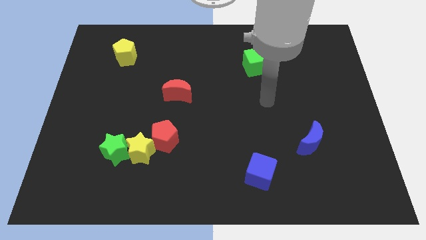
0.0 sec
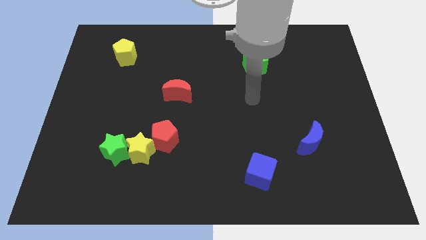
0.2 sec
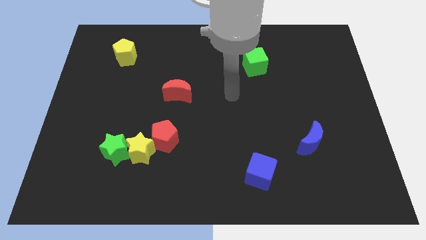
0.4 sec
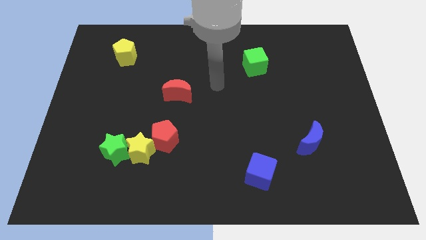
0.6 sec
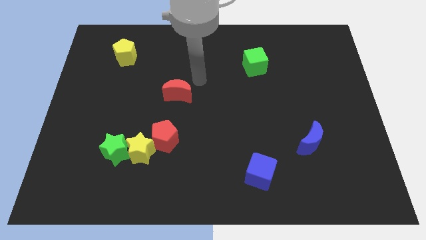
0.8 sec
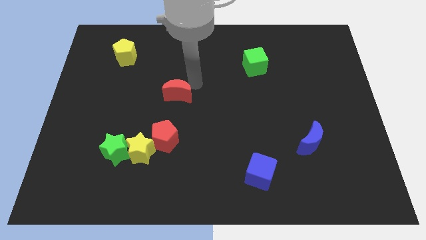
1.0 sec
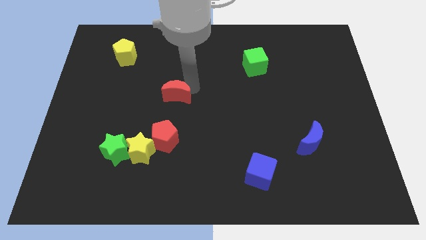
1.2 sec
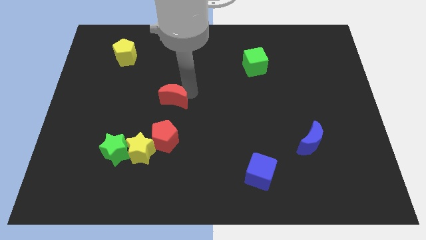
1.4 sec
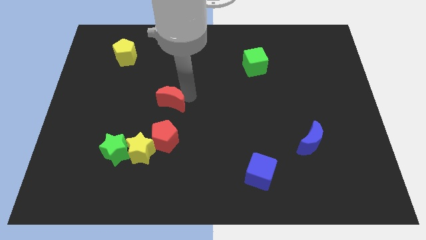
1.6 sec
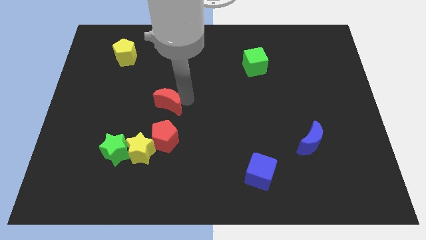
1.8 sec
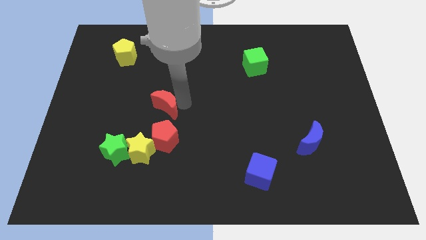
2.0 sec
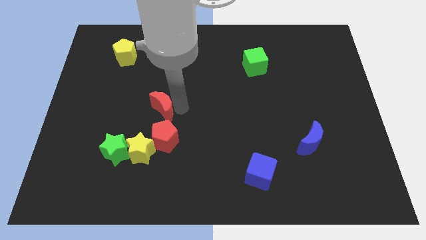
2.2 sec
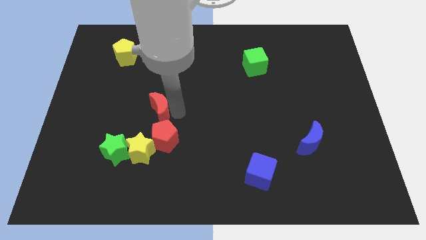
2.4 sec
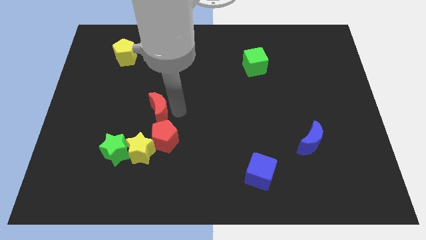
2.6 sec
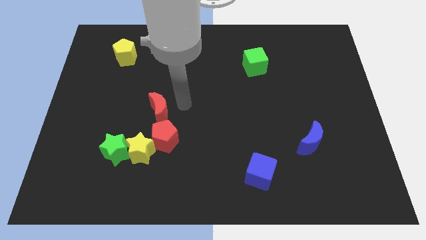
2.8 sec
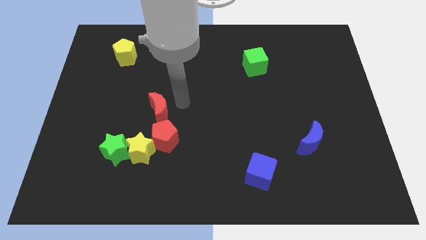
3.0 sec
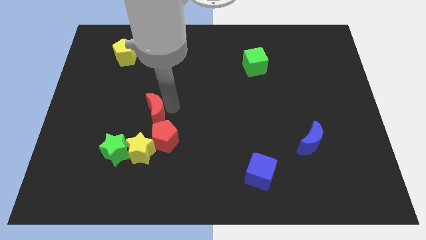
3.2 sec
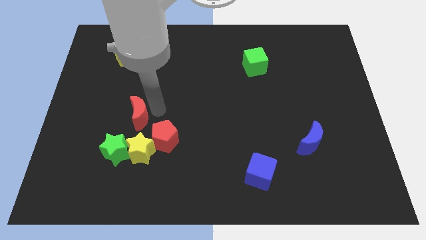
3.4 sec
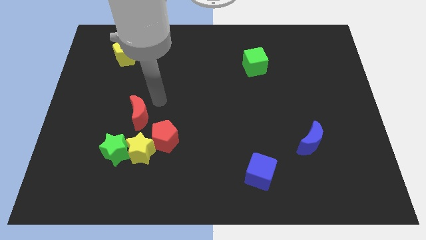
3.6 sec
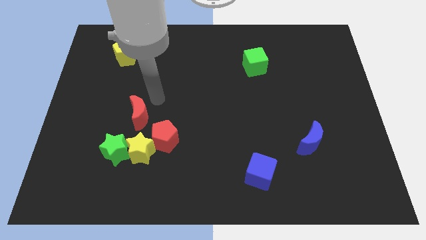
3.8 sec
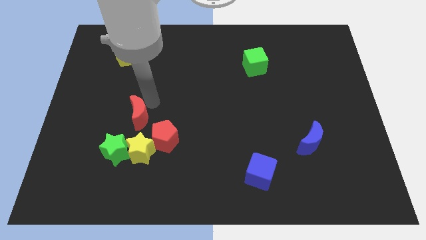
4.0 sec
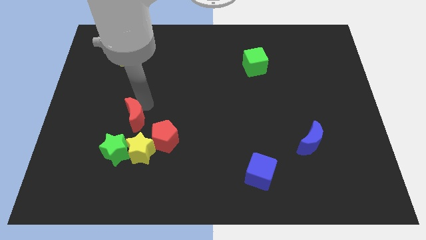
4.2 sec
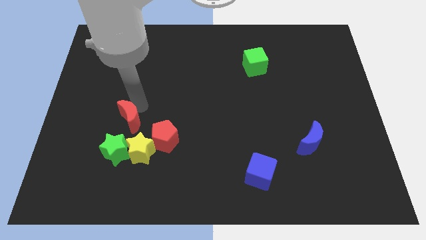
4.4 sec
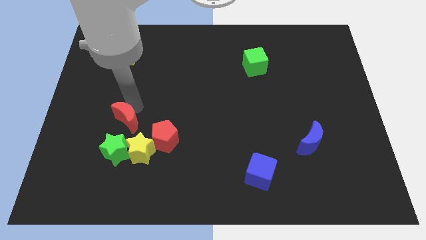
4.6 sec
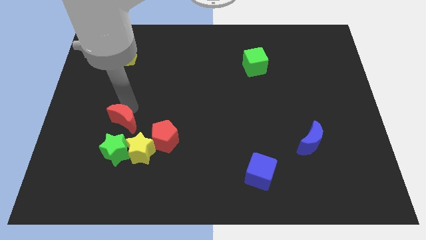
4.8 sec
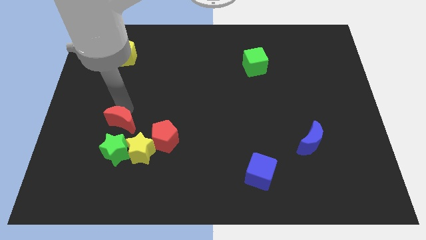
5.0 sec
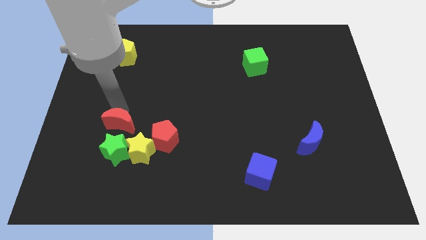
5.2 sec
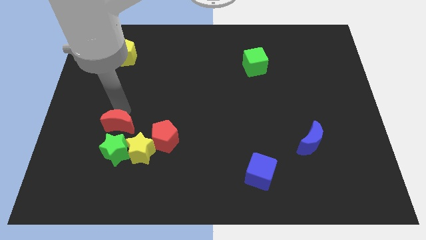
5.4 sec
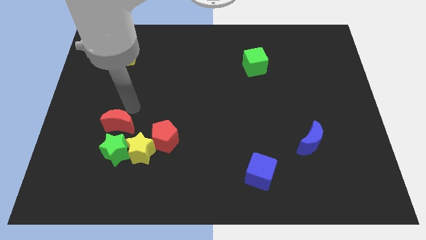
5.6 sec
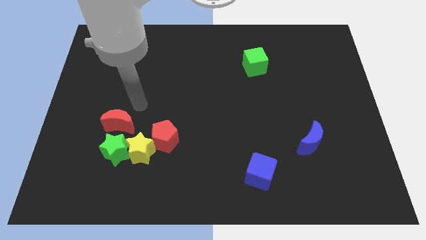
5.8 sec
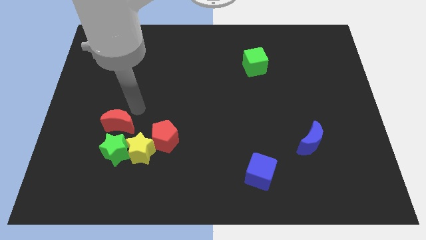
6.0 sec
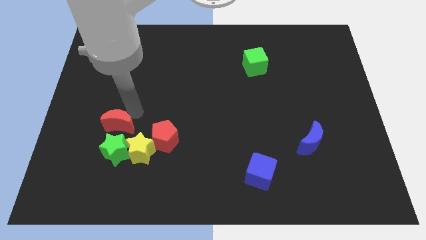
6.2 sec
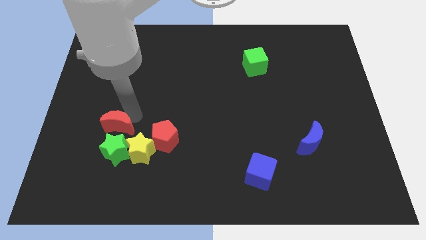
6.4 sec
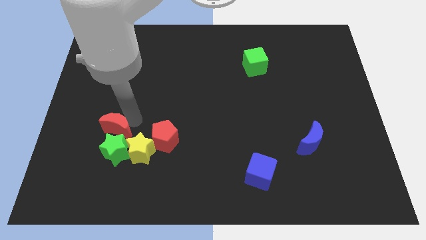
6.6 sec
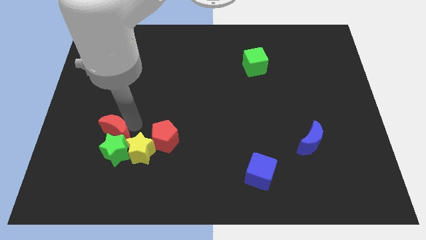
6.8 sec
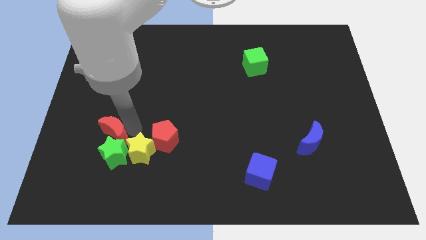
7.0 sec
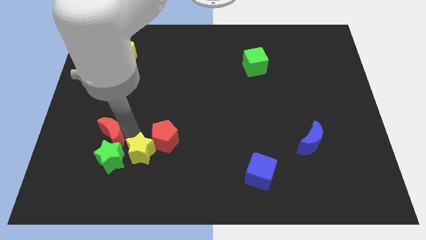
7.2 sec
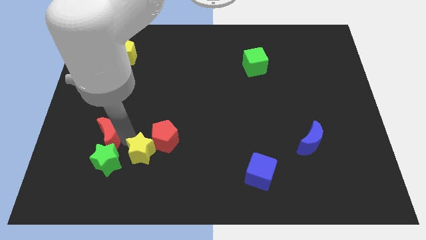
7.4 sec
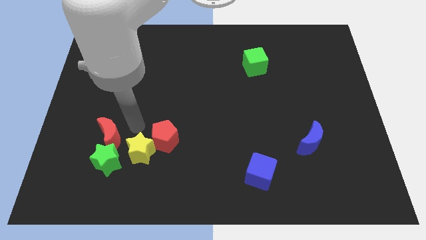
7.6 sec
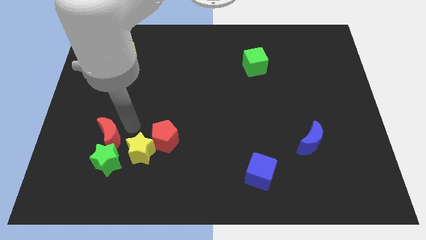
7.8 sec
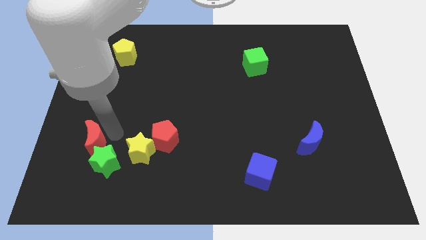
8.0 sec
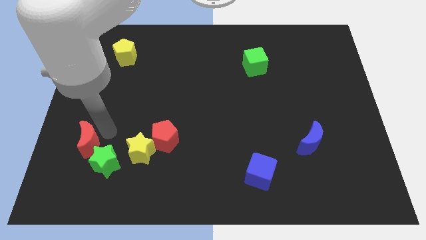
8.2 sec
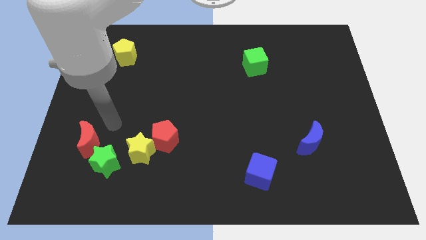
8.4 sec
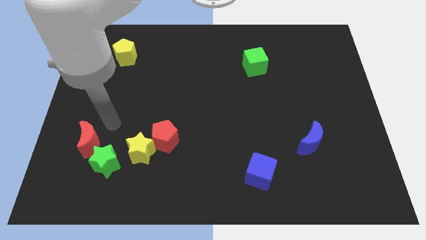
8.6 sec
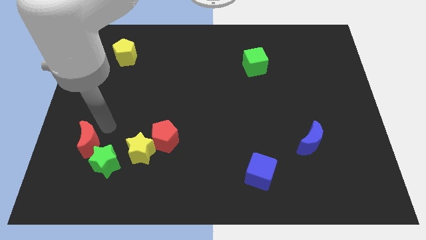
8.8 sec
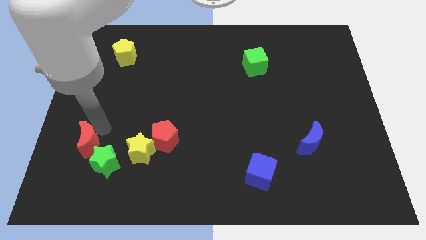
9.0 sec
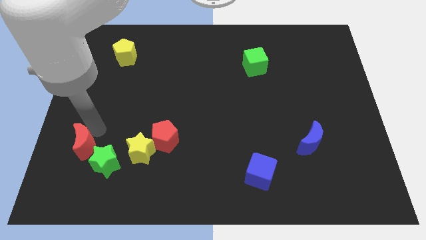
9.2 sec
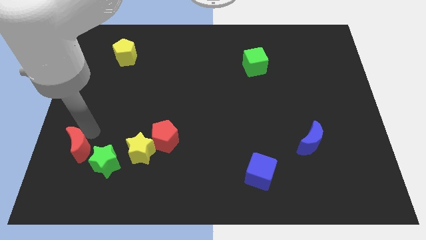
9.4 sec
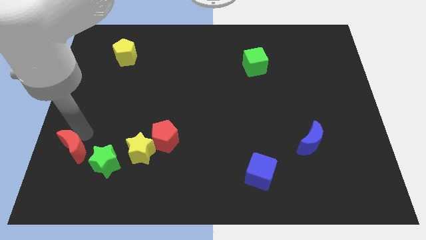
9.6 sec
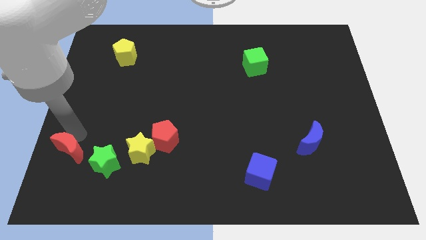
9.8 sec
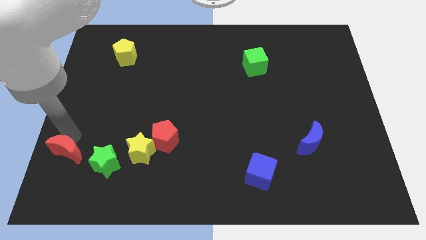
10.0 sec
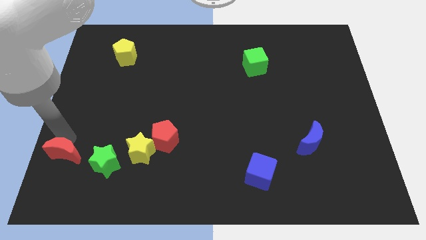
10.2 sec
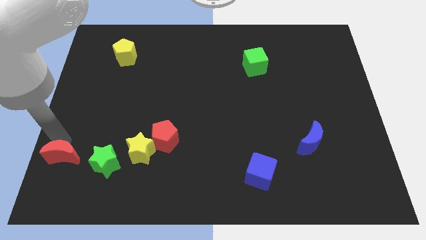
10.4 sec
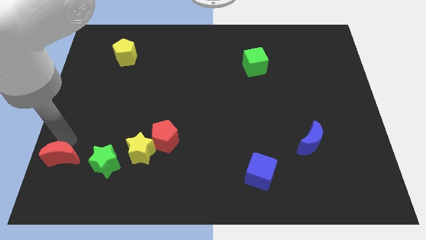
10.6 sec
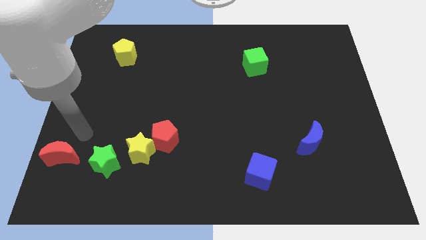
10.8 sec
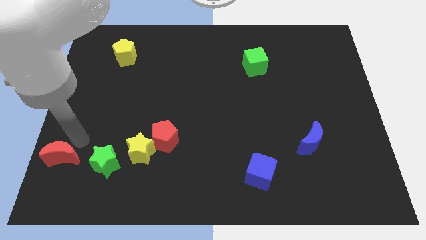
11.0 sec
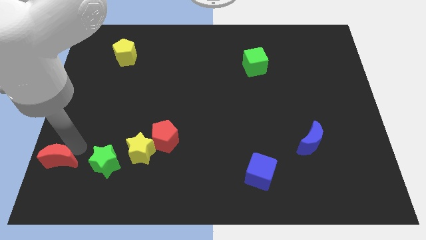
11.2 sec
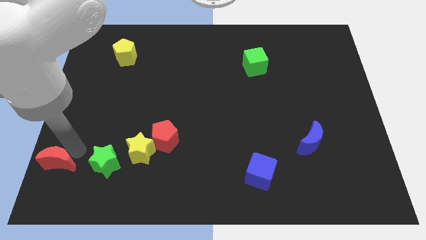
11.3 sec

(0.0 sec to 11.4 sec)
put the red moon to the lower left corner

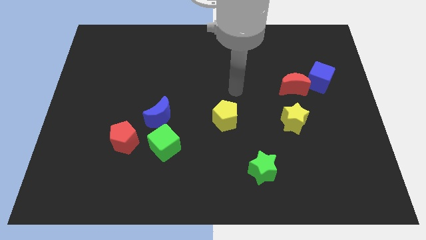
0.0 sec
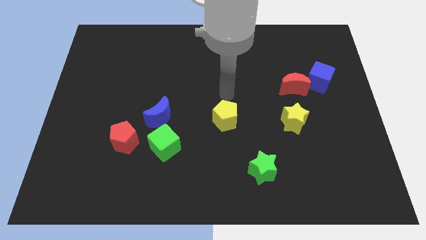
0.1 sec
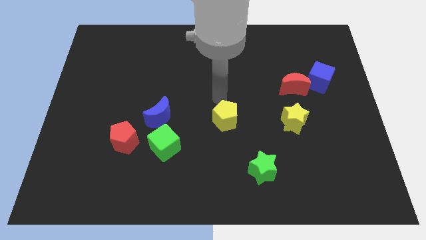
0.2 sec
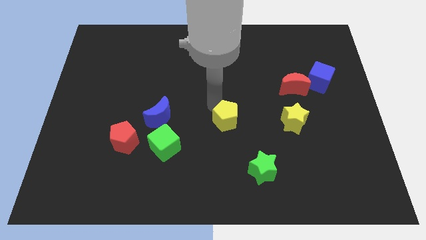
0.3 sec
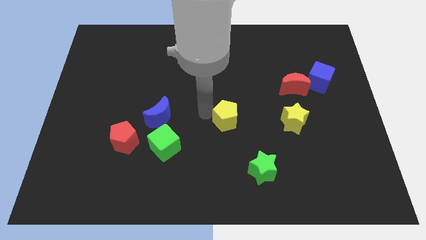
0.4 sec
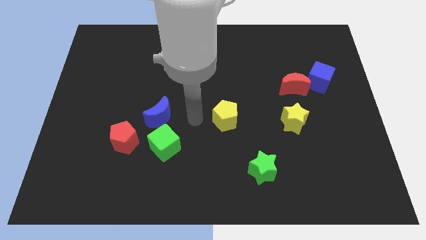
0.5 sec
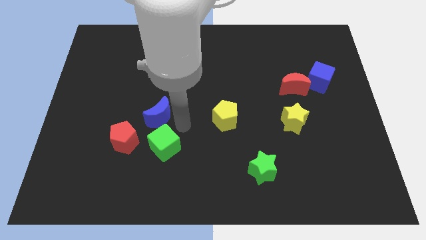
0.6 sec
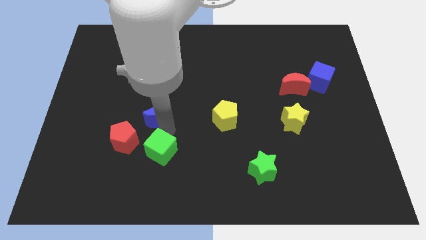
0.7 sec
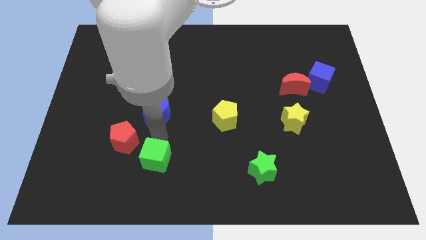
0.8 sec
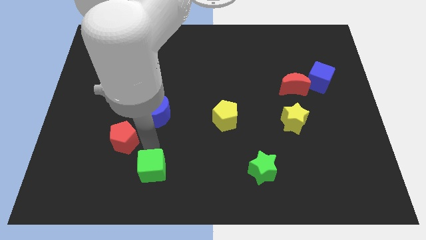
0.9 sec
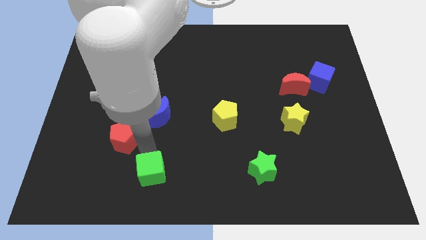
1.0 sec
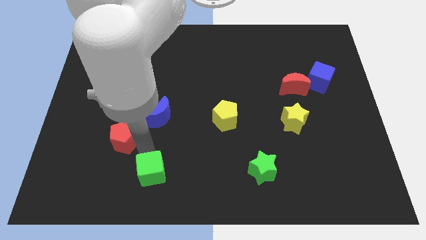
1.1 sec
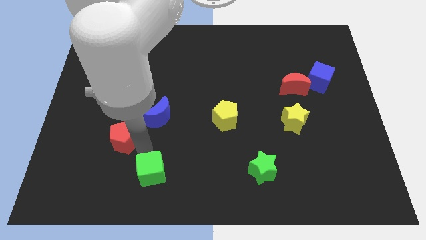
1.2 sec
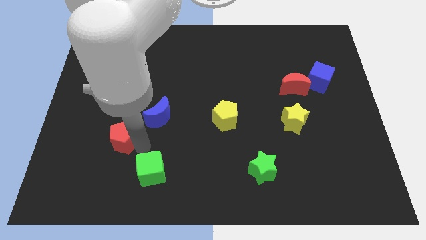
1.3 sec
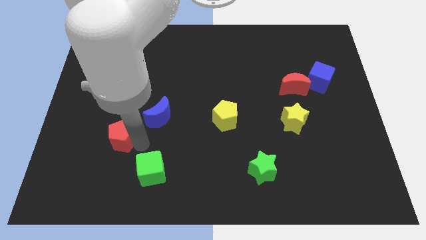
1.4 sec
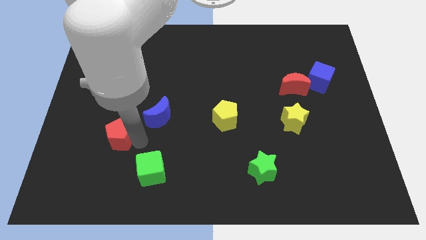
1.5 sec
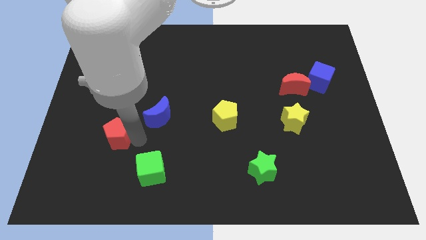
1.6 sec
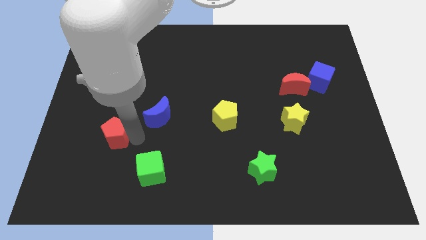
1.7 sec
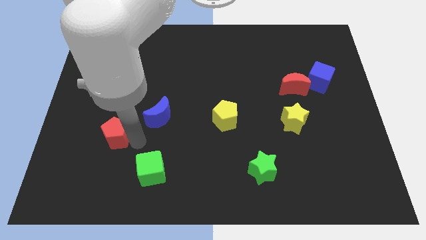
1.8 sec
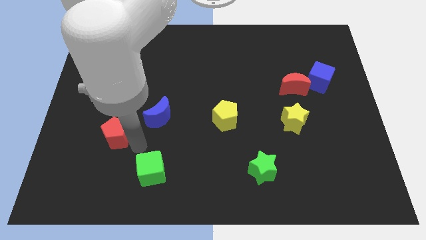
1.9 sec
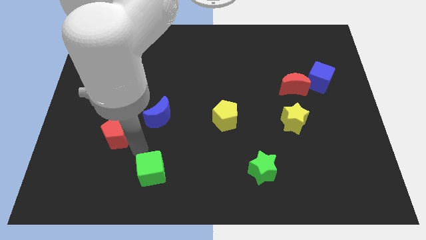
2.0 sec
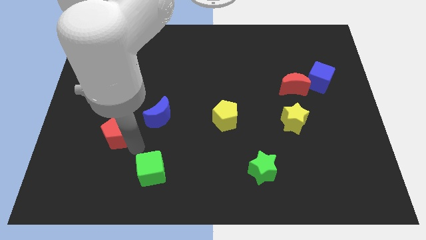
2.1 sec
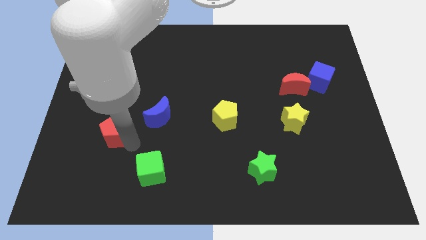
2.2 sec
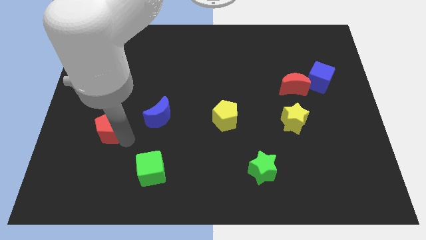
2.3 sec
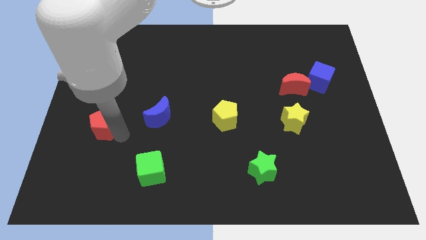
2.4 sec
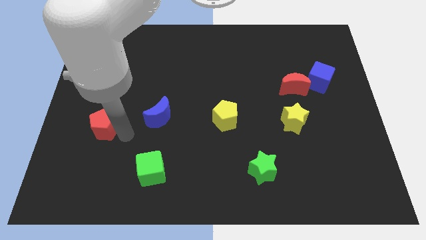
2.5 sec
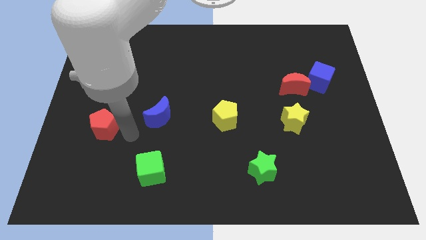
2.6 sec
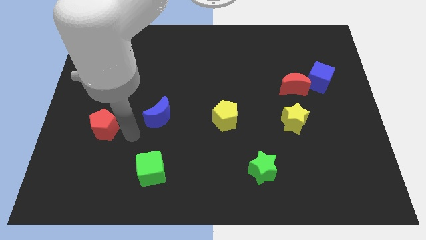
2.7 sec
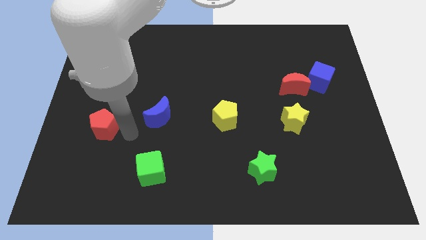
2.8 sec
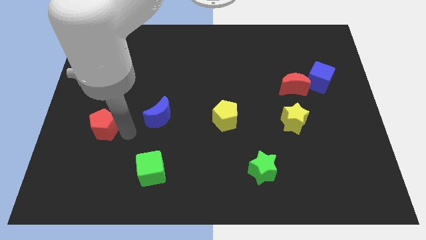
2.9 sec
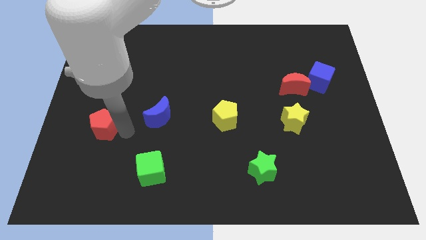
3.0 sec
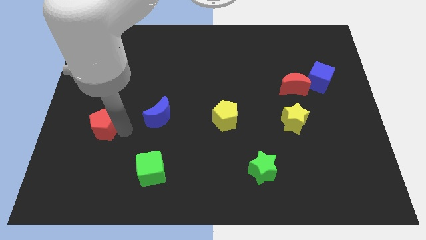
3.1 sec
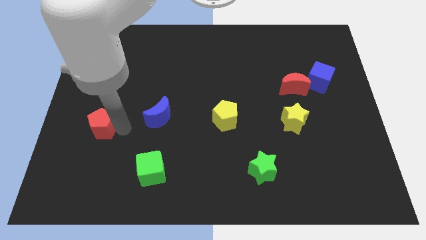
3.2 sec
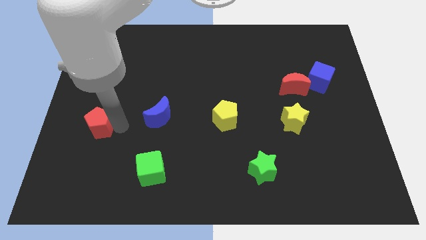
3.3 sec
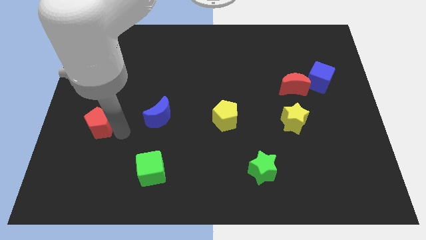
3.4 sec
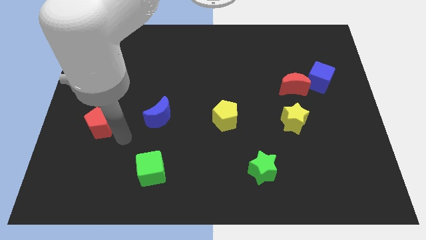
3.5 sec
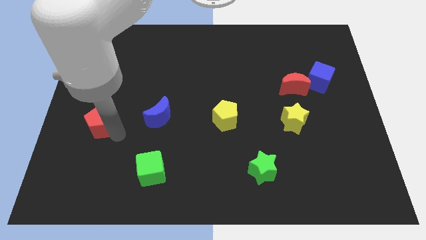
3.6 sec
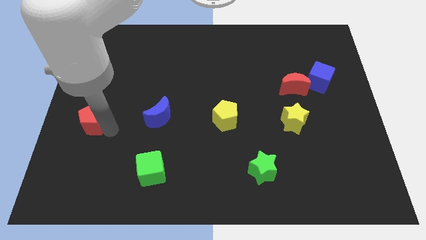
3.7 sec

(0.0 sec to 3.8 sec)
move the red pentagon to the left side of the board
